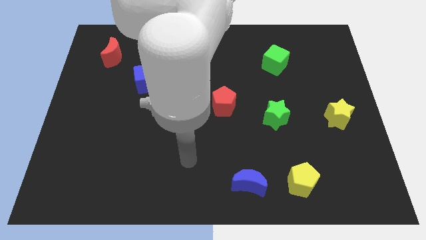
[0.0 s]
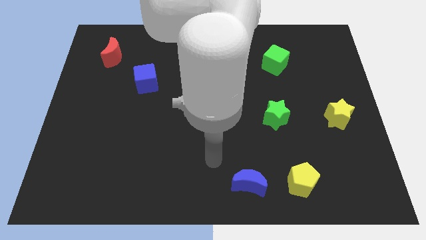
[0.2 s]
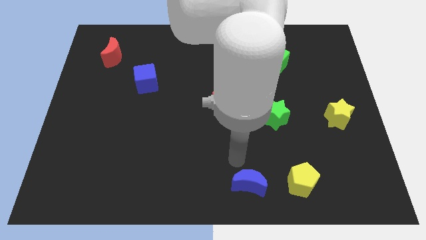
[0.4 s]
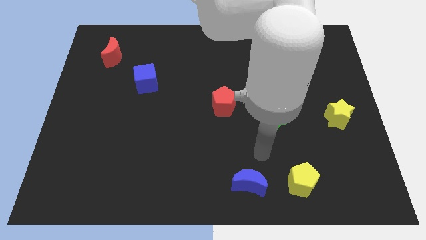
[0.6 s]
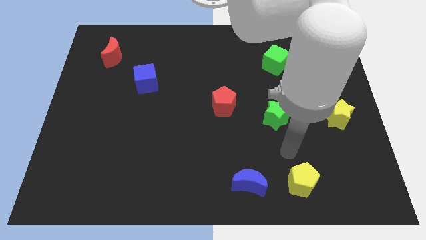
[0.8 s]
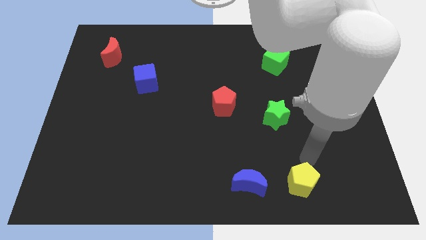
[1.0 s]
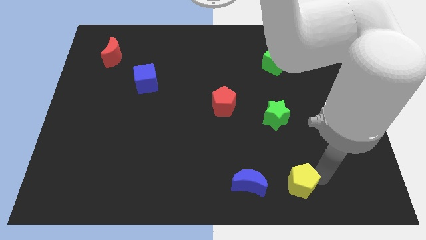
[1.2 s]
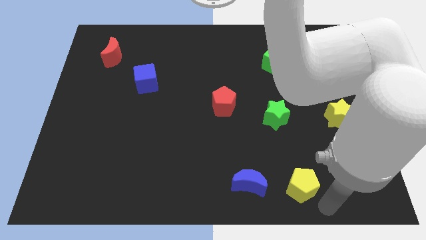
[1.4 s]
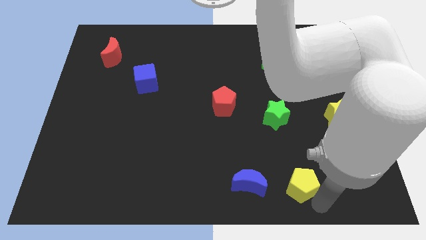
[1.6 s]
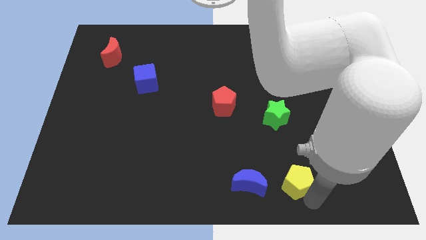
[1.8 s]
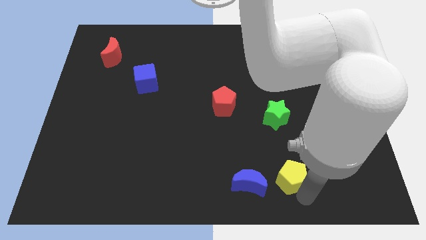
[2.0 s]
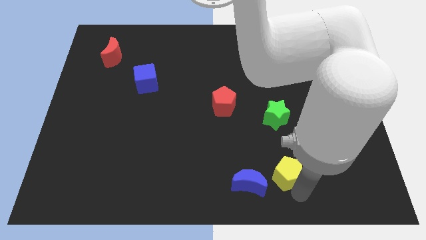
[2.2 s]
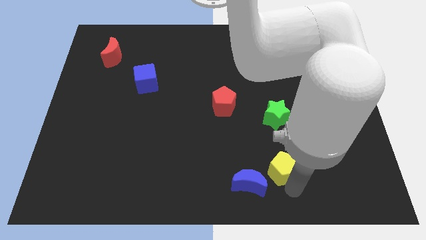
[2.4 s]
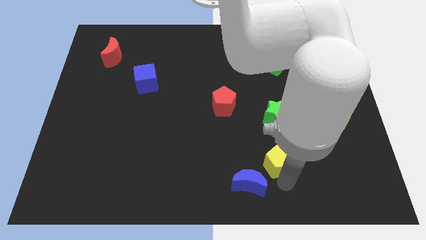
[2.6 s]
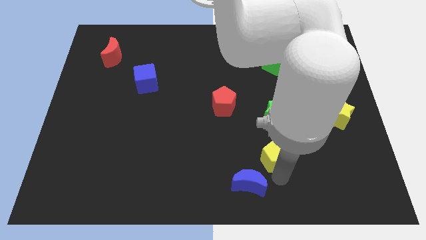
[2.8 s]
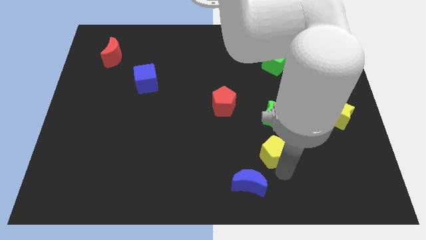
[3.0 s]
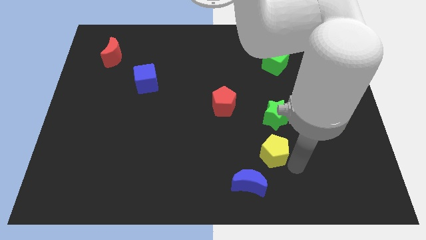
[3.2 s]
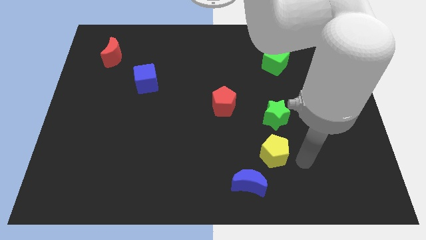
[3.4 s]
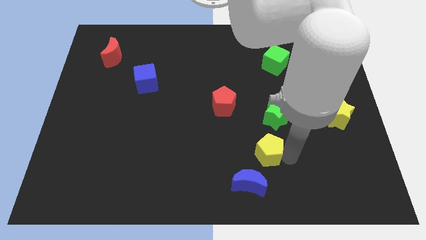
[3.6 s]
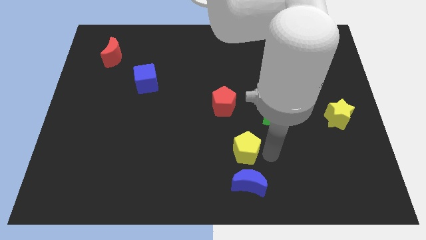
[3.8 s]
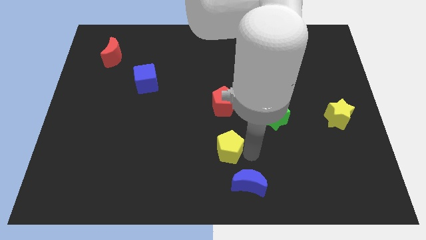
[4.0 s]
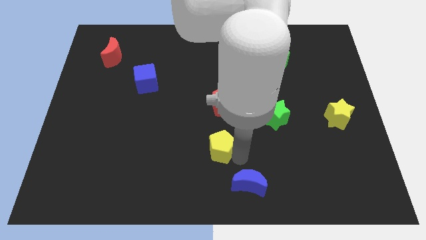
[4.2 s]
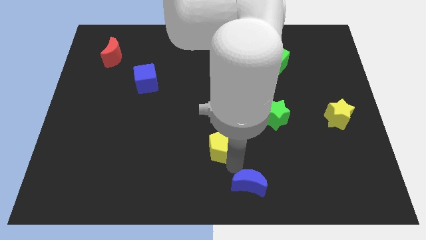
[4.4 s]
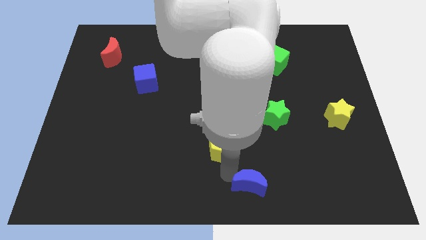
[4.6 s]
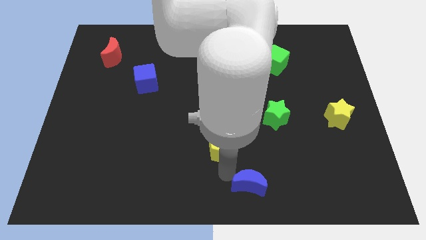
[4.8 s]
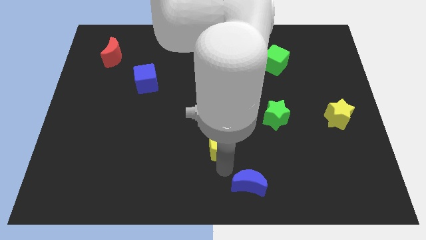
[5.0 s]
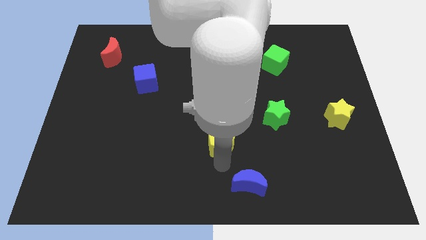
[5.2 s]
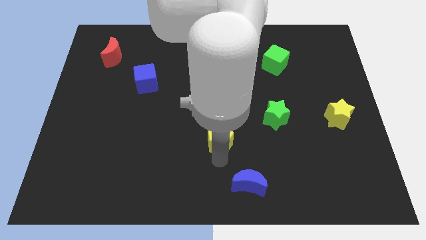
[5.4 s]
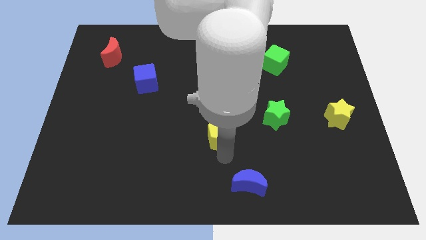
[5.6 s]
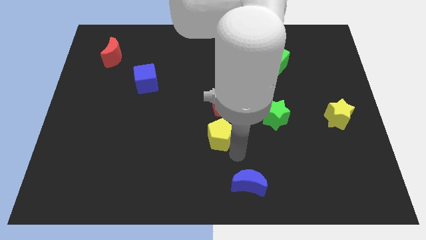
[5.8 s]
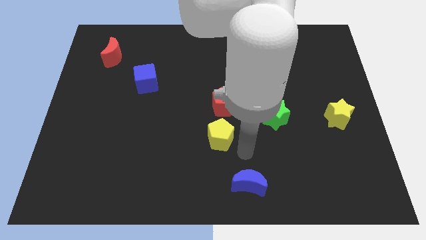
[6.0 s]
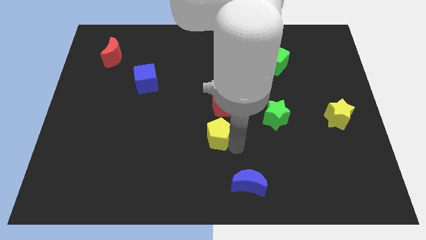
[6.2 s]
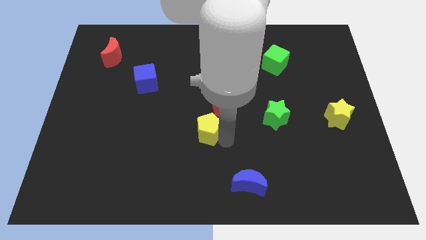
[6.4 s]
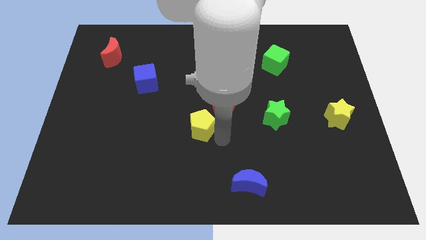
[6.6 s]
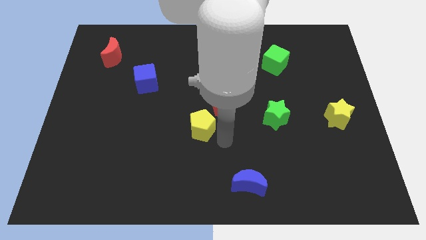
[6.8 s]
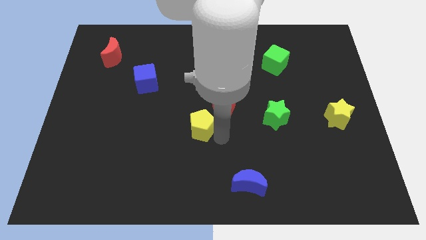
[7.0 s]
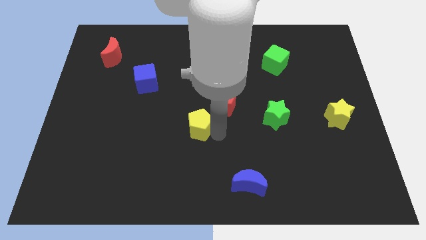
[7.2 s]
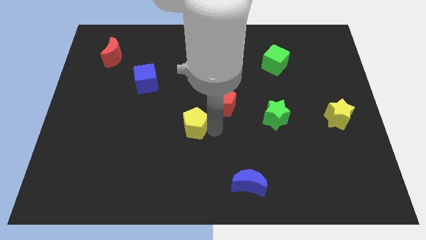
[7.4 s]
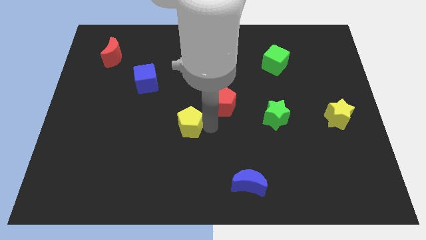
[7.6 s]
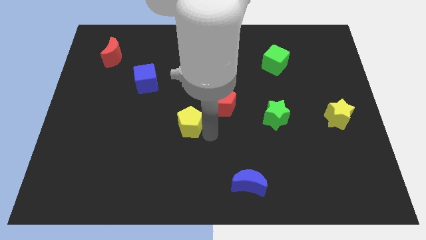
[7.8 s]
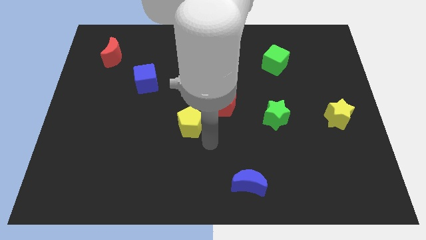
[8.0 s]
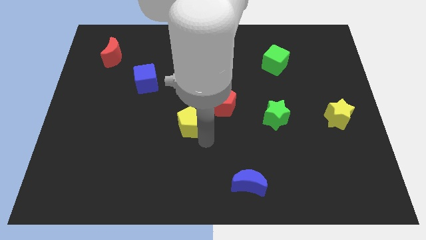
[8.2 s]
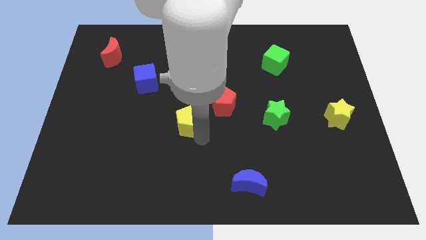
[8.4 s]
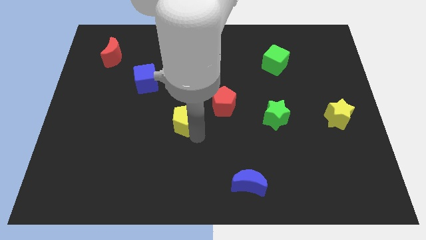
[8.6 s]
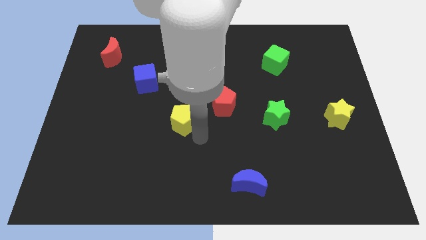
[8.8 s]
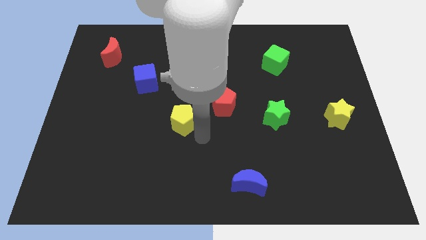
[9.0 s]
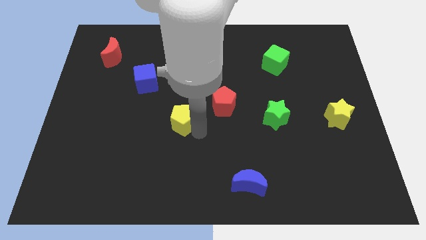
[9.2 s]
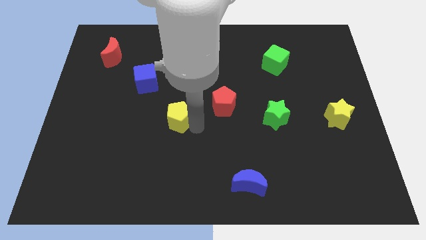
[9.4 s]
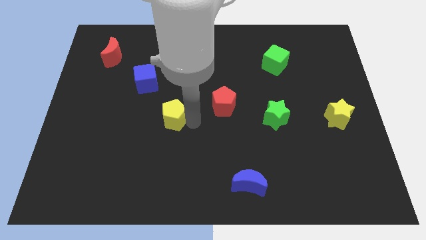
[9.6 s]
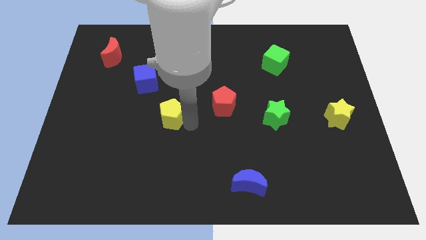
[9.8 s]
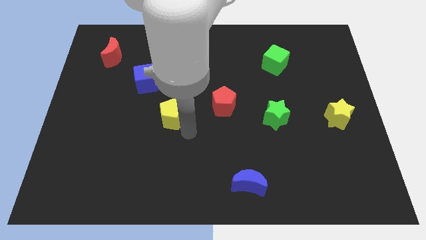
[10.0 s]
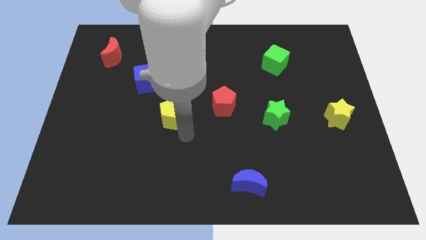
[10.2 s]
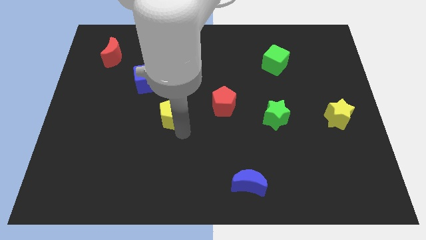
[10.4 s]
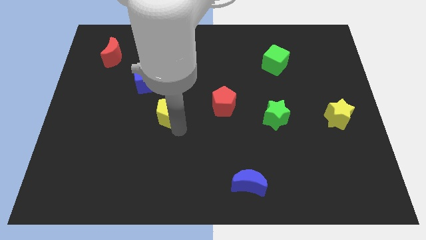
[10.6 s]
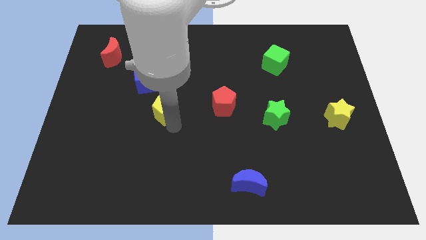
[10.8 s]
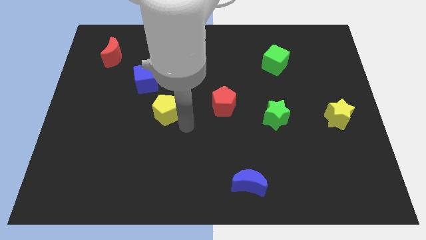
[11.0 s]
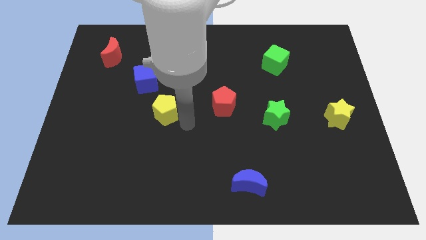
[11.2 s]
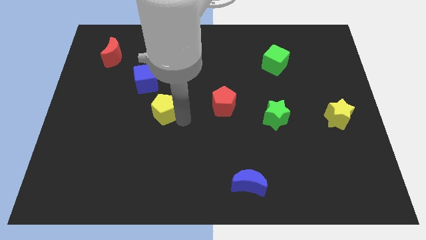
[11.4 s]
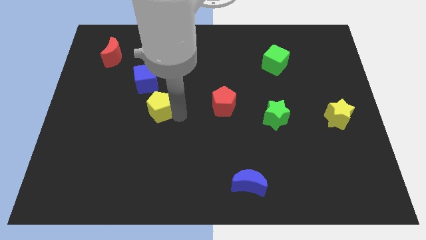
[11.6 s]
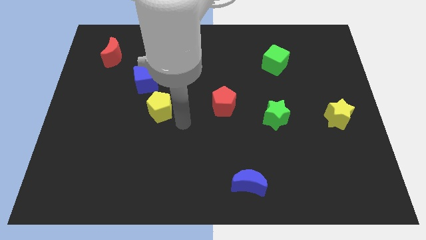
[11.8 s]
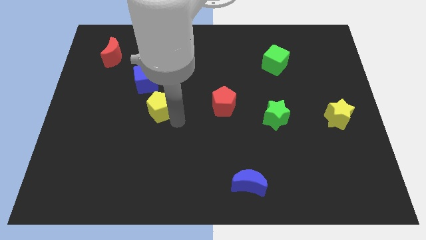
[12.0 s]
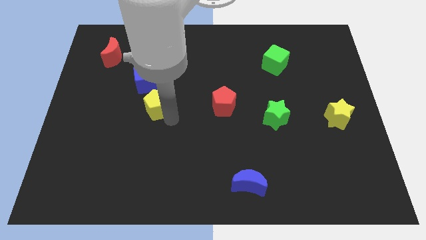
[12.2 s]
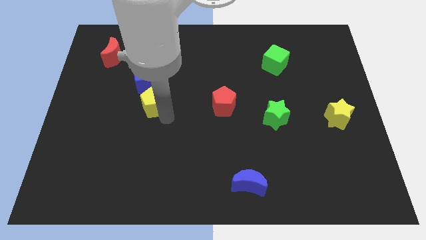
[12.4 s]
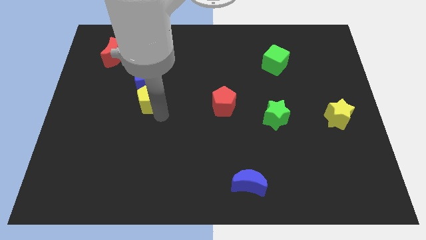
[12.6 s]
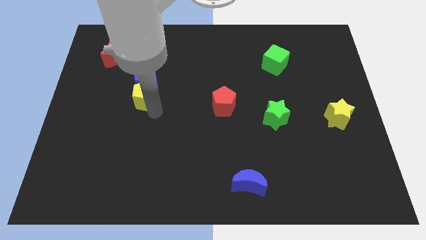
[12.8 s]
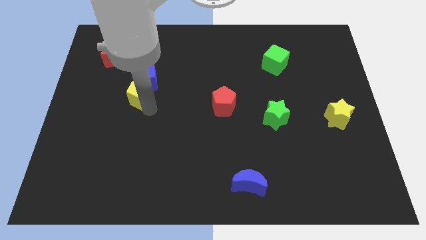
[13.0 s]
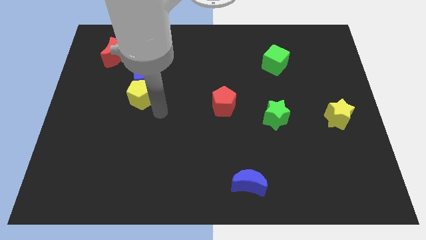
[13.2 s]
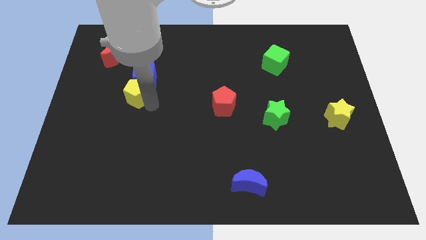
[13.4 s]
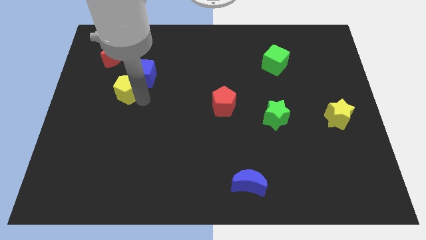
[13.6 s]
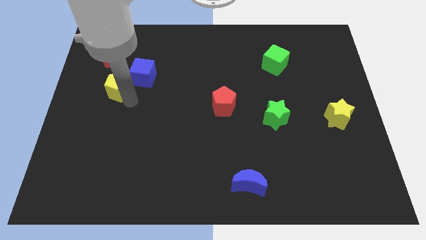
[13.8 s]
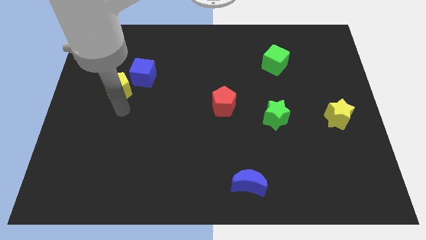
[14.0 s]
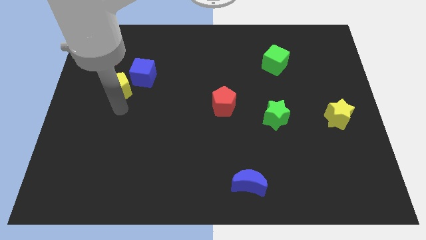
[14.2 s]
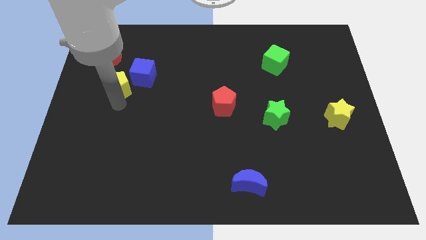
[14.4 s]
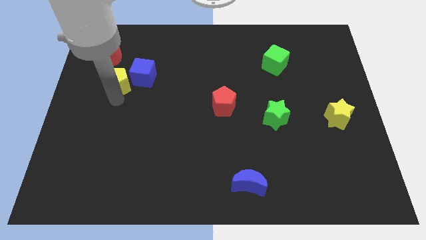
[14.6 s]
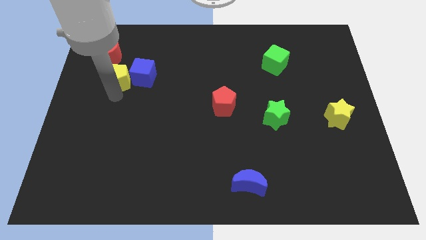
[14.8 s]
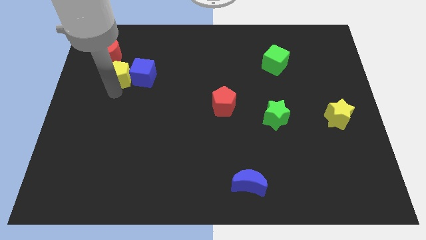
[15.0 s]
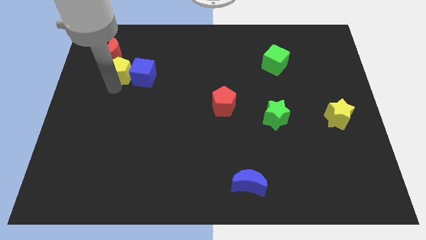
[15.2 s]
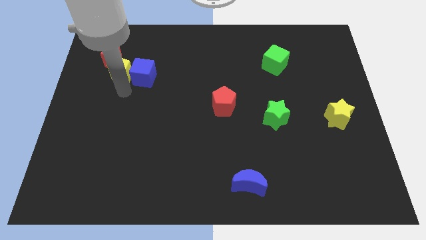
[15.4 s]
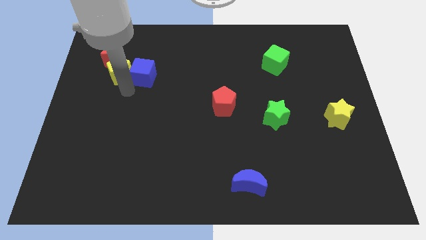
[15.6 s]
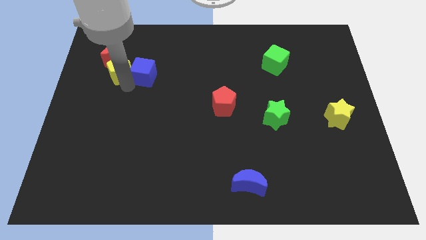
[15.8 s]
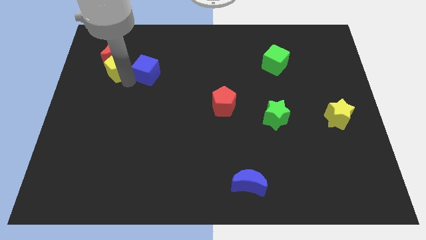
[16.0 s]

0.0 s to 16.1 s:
put the yellow pentagon close to the red moon
